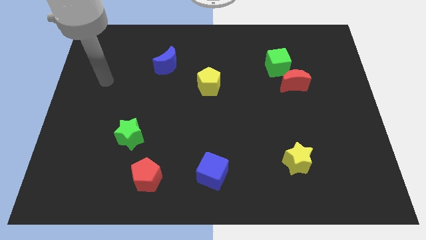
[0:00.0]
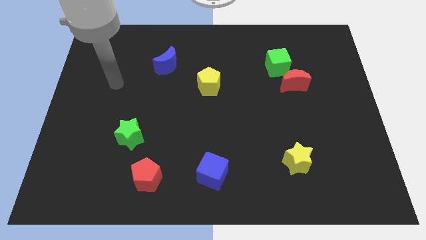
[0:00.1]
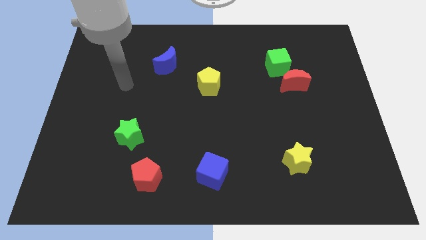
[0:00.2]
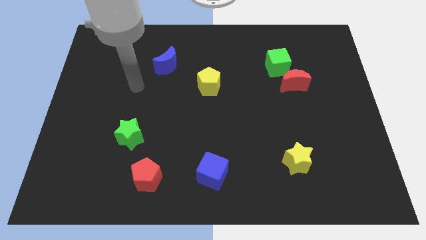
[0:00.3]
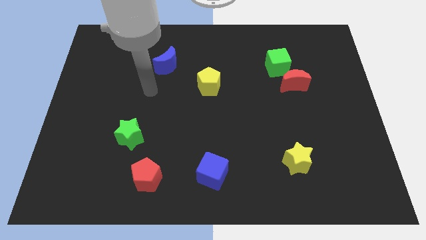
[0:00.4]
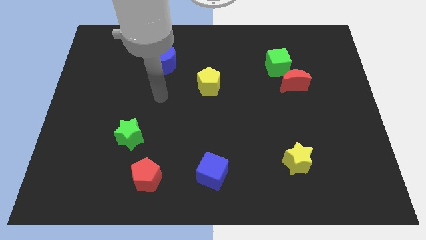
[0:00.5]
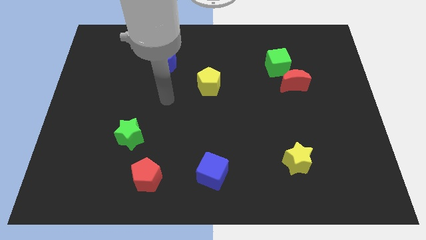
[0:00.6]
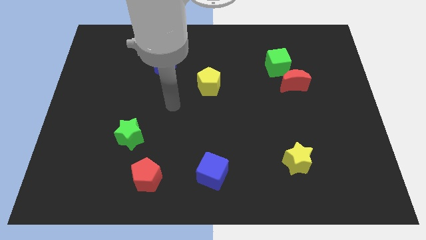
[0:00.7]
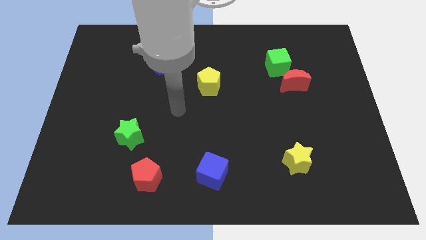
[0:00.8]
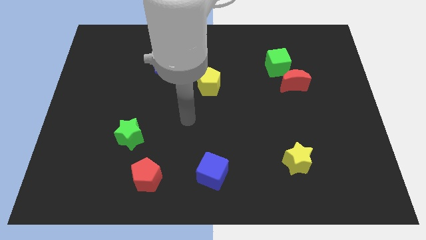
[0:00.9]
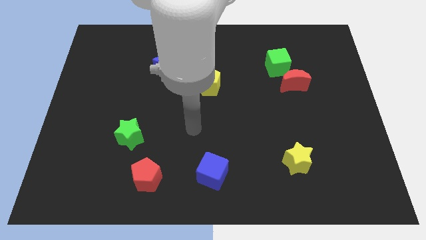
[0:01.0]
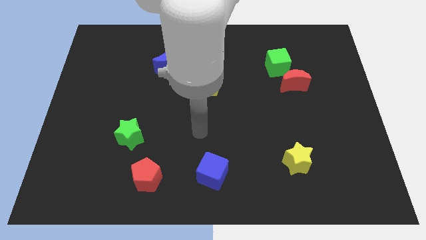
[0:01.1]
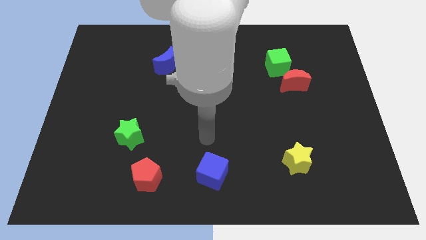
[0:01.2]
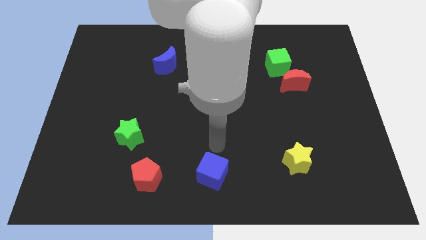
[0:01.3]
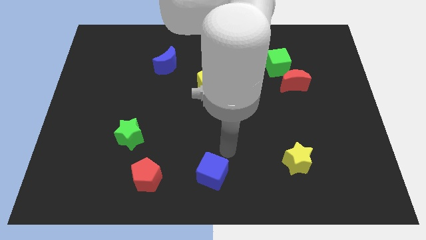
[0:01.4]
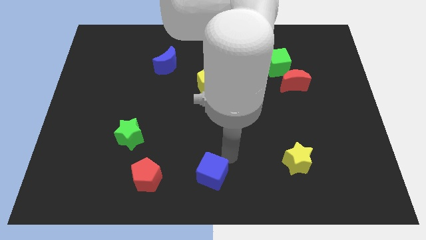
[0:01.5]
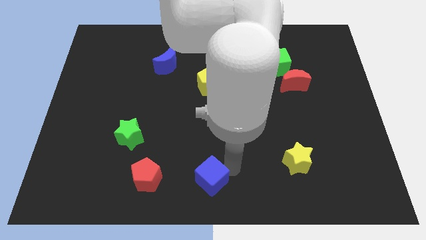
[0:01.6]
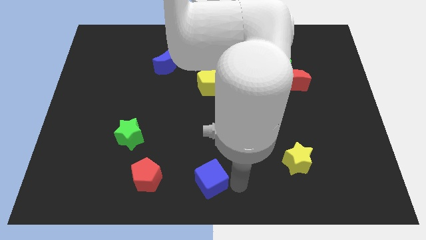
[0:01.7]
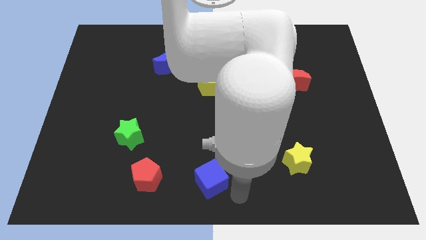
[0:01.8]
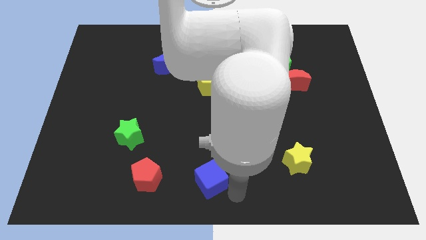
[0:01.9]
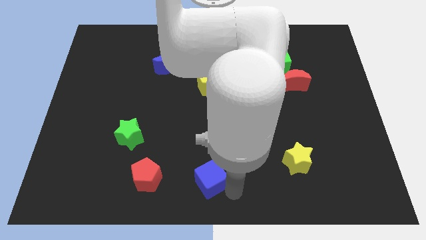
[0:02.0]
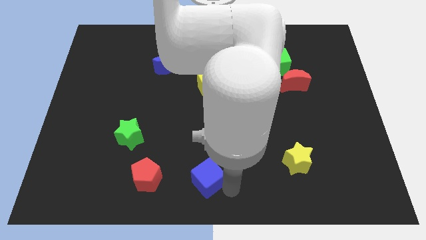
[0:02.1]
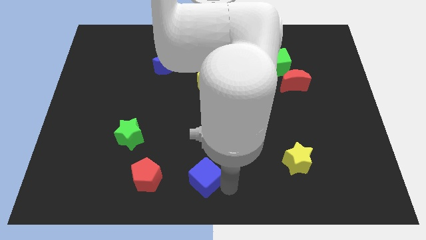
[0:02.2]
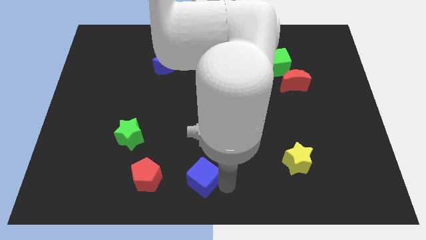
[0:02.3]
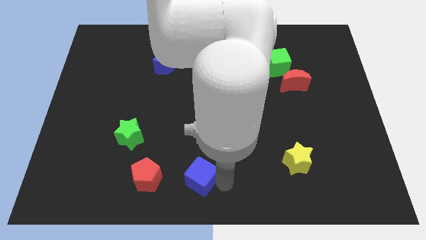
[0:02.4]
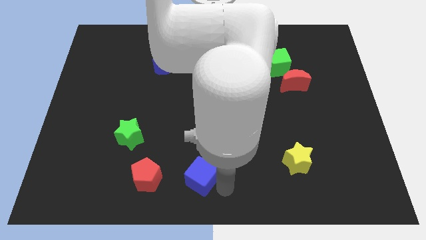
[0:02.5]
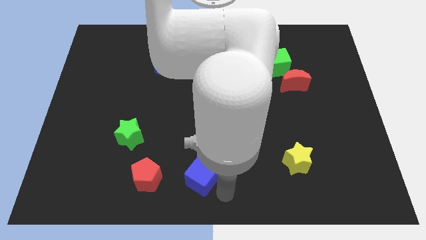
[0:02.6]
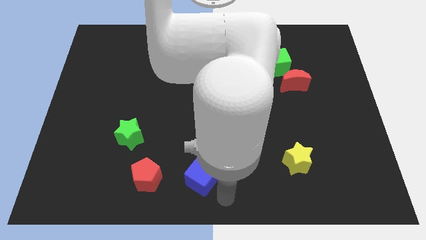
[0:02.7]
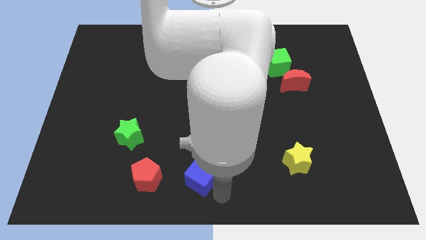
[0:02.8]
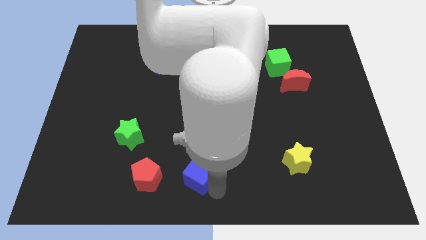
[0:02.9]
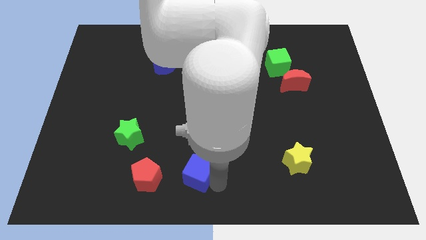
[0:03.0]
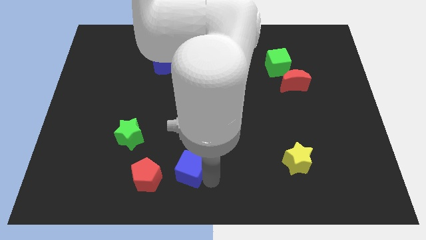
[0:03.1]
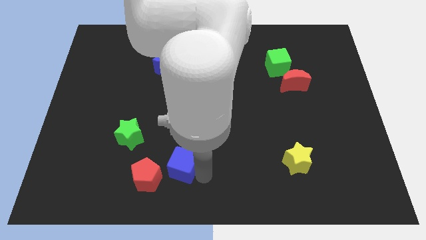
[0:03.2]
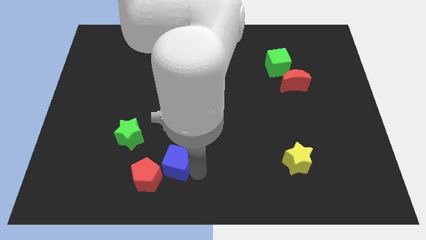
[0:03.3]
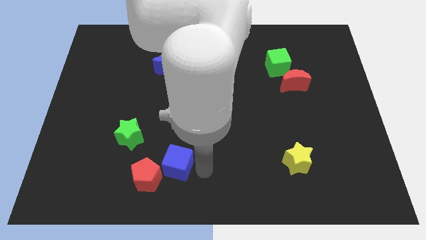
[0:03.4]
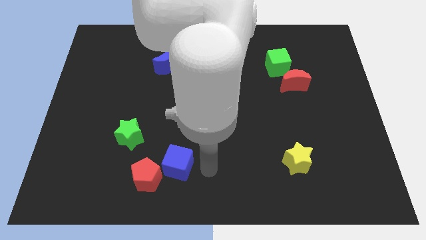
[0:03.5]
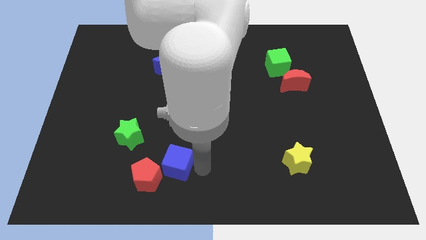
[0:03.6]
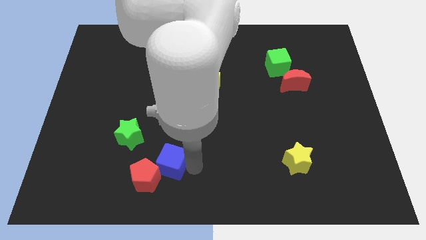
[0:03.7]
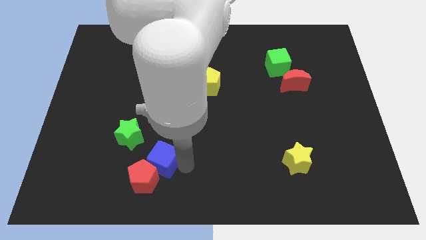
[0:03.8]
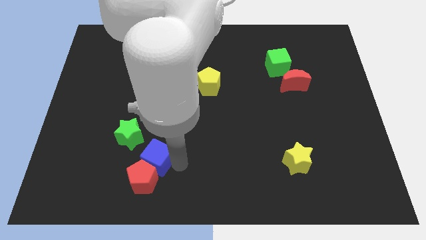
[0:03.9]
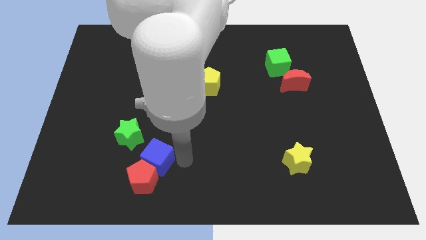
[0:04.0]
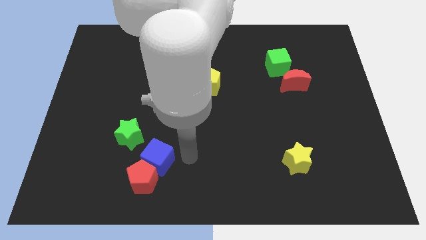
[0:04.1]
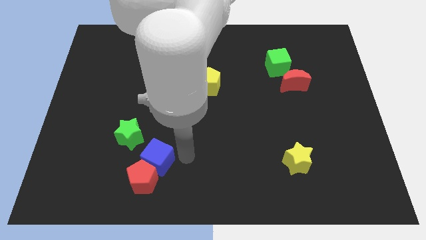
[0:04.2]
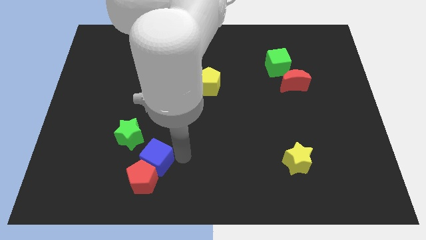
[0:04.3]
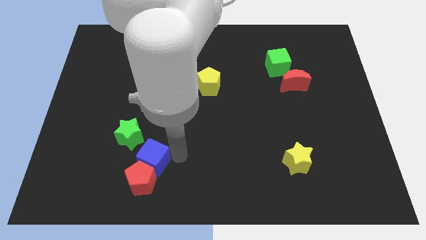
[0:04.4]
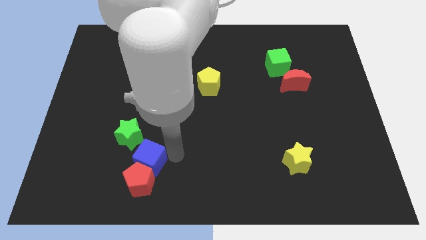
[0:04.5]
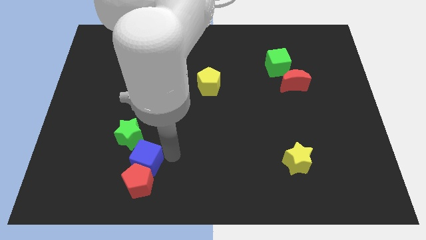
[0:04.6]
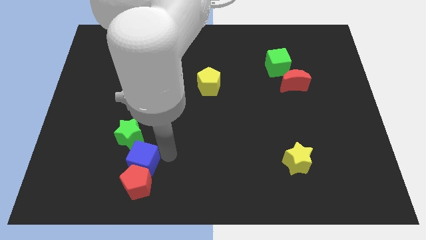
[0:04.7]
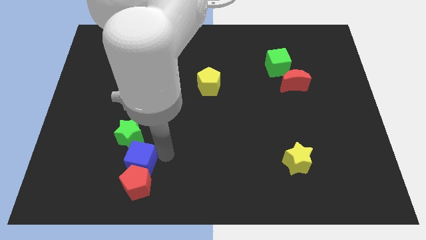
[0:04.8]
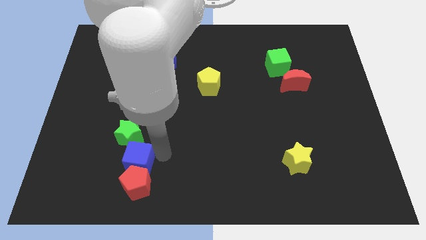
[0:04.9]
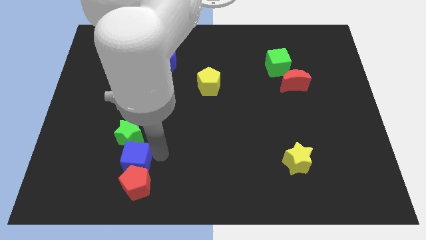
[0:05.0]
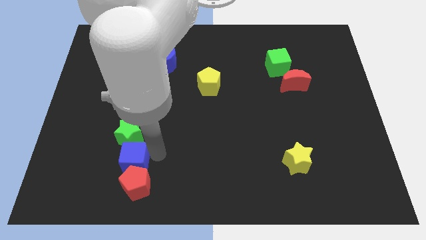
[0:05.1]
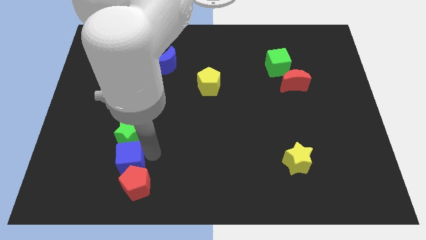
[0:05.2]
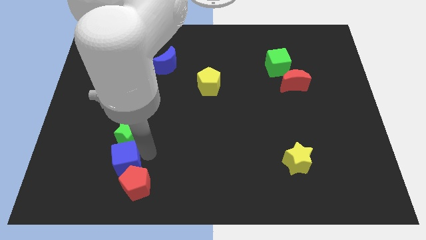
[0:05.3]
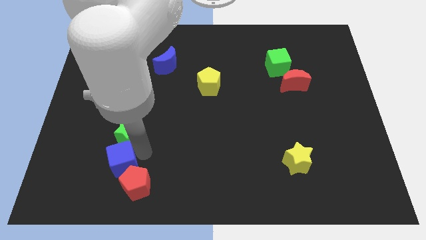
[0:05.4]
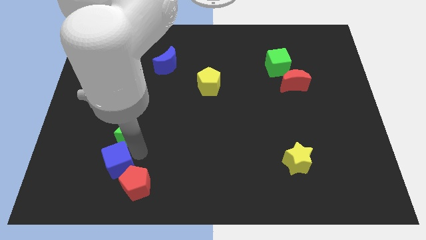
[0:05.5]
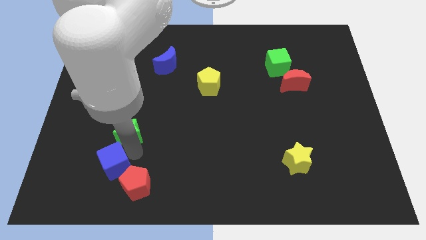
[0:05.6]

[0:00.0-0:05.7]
slide the blue cube to the left side of the red pentagon
